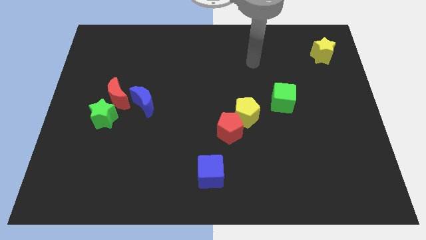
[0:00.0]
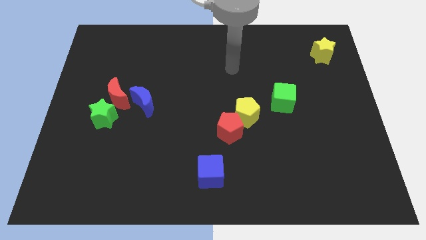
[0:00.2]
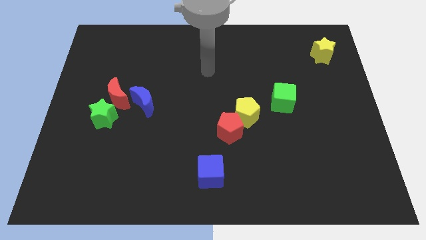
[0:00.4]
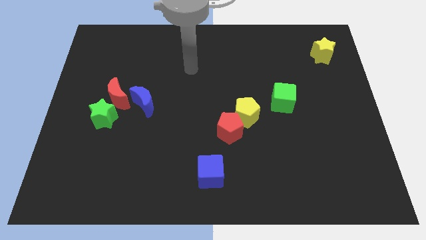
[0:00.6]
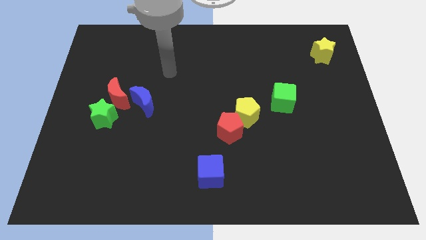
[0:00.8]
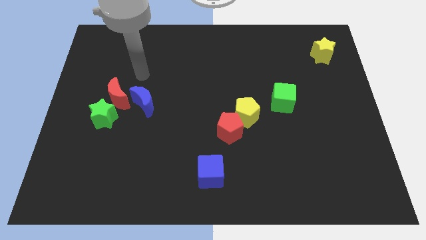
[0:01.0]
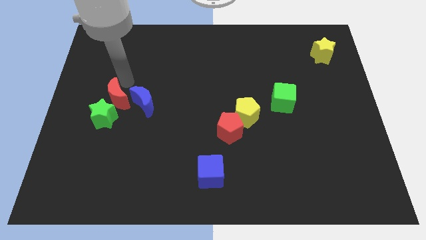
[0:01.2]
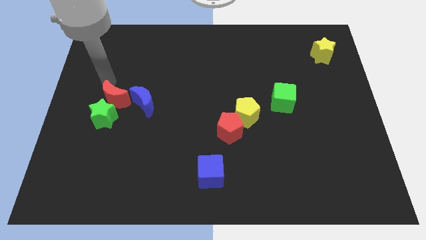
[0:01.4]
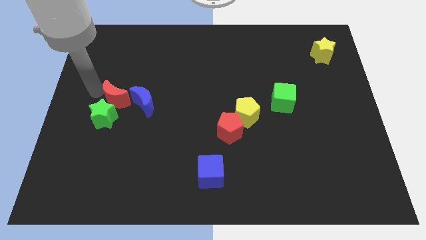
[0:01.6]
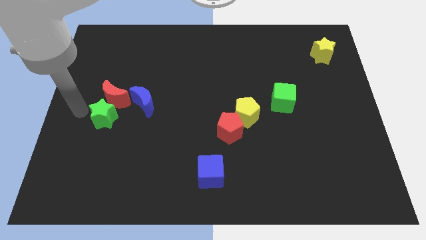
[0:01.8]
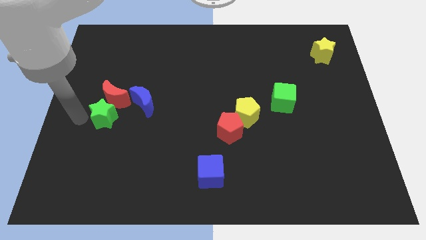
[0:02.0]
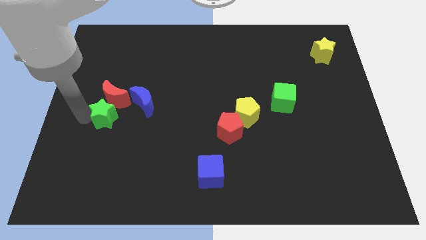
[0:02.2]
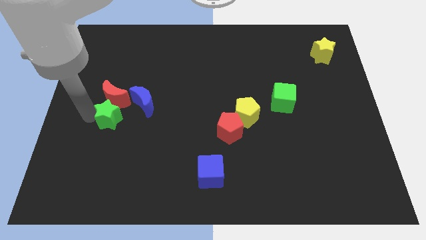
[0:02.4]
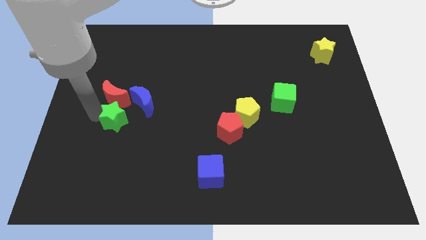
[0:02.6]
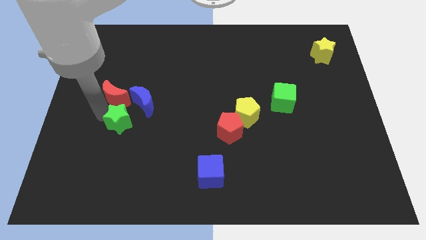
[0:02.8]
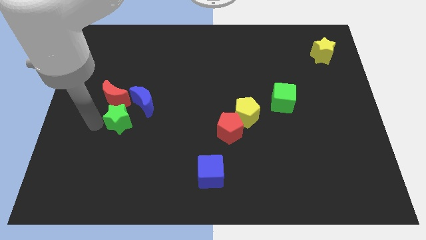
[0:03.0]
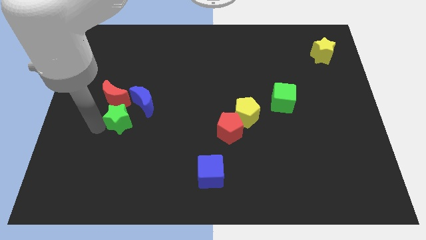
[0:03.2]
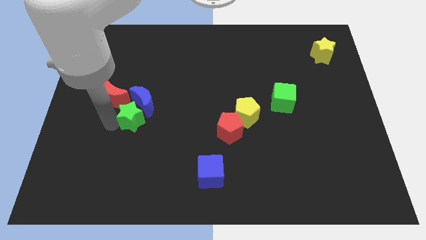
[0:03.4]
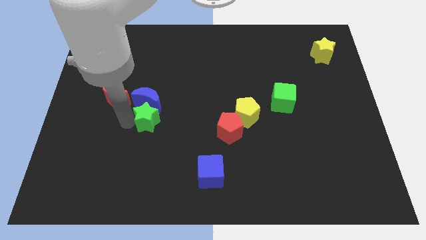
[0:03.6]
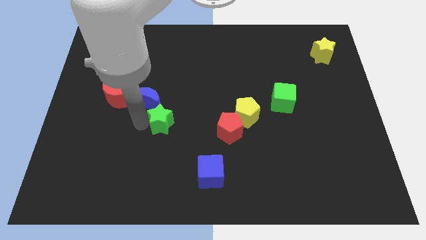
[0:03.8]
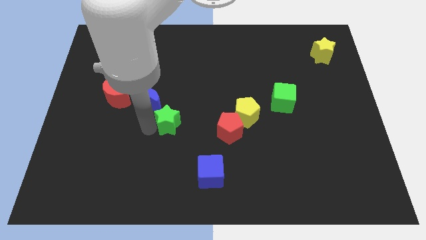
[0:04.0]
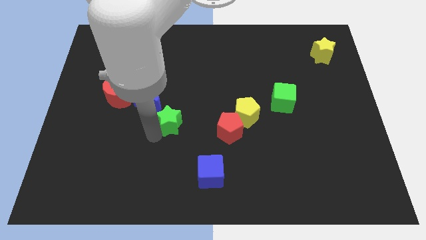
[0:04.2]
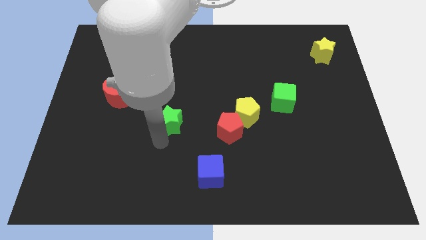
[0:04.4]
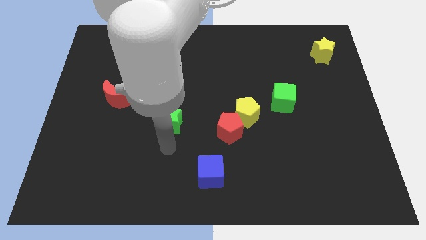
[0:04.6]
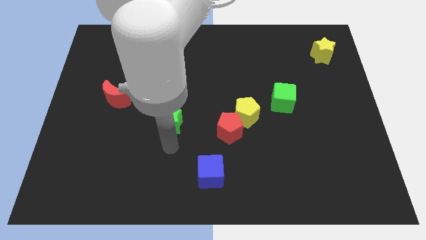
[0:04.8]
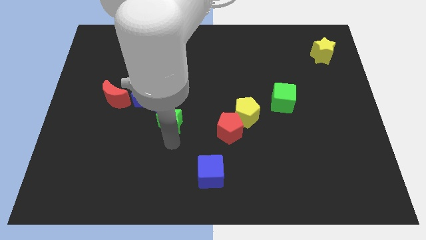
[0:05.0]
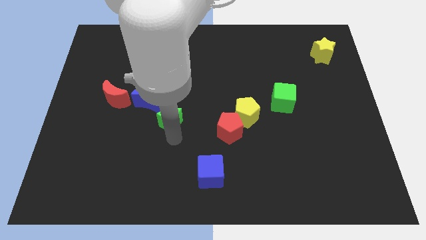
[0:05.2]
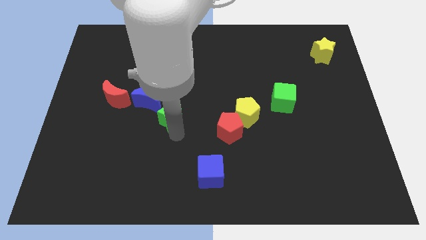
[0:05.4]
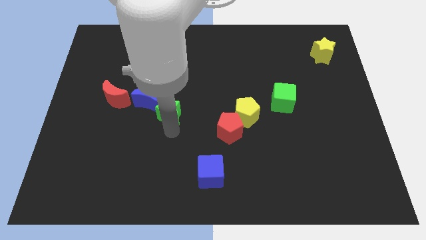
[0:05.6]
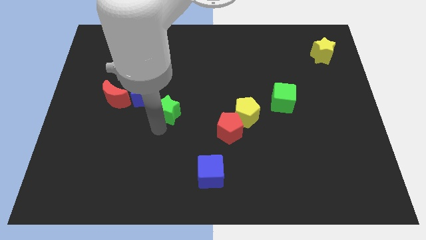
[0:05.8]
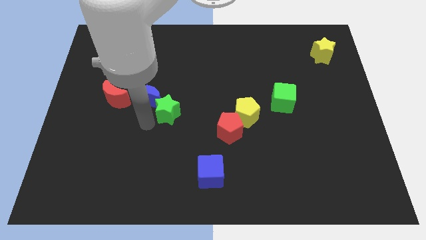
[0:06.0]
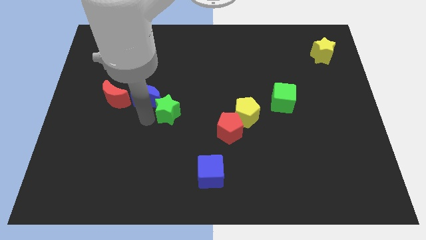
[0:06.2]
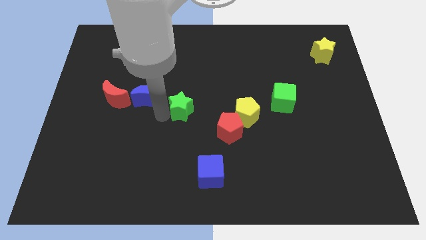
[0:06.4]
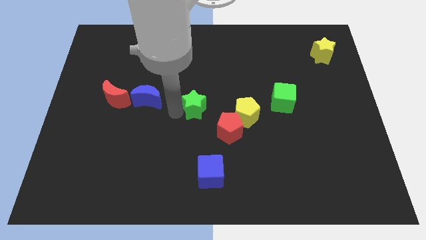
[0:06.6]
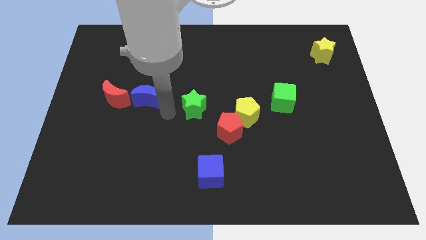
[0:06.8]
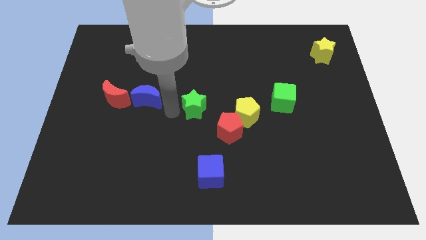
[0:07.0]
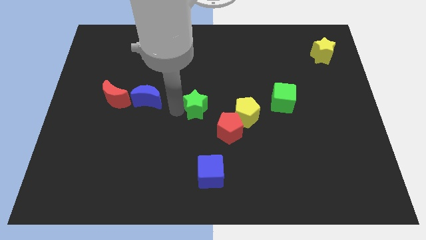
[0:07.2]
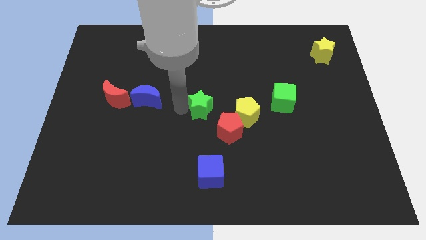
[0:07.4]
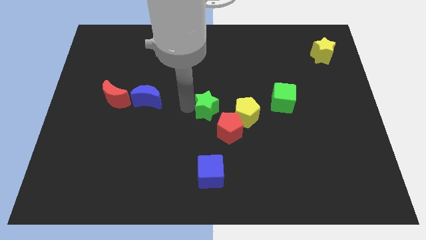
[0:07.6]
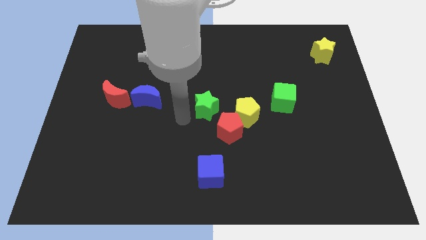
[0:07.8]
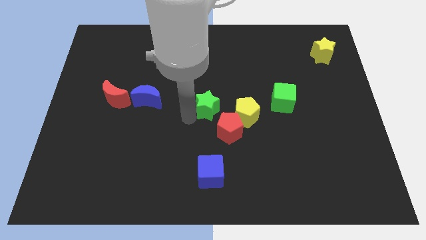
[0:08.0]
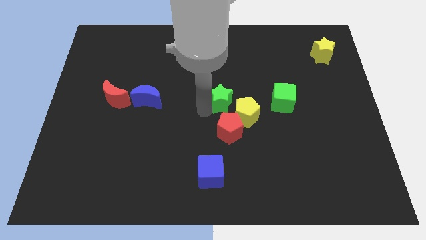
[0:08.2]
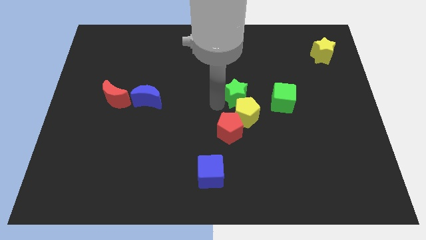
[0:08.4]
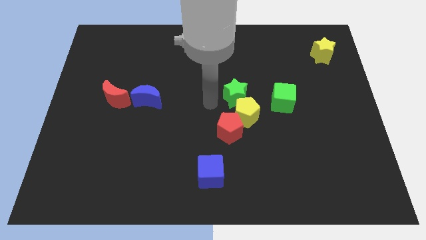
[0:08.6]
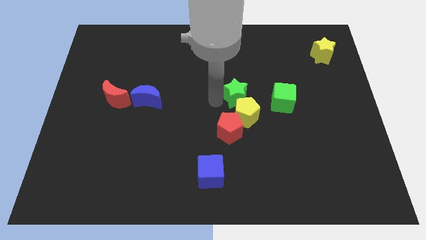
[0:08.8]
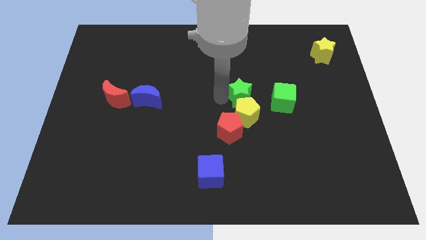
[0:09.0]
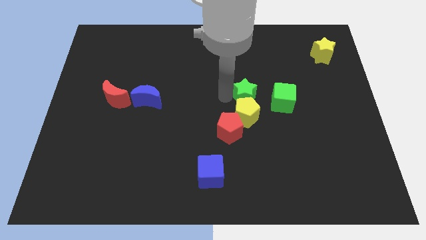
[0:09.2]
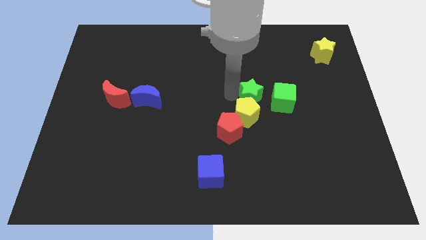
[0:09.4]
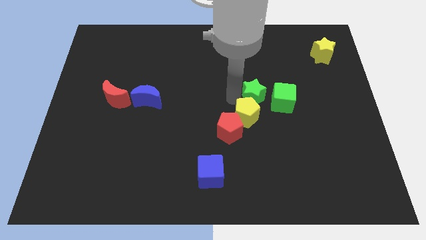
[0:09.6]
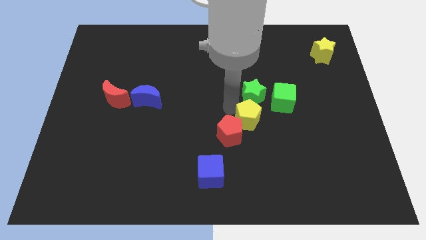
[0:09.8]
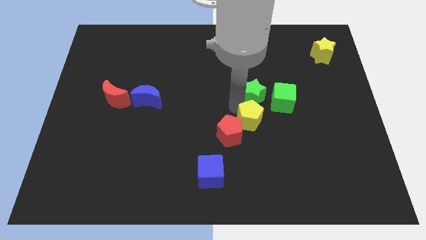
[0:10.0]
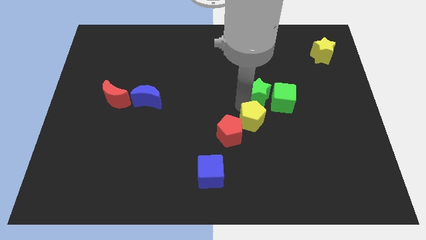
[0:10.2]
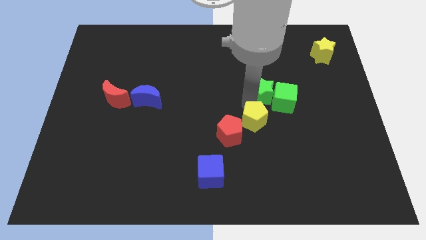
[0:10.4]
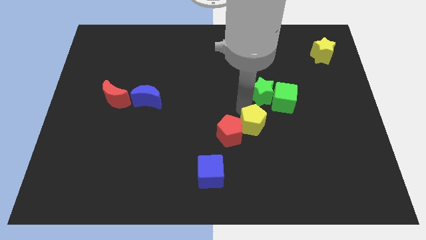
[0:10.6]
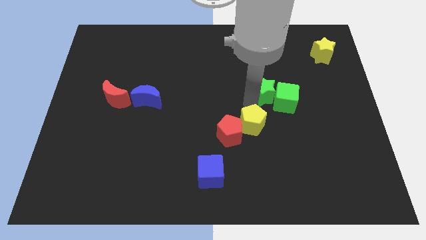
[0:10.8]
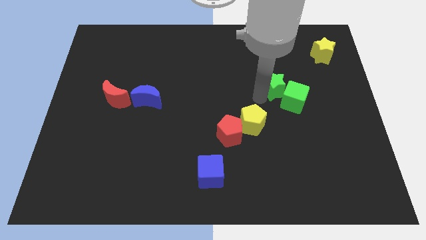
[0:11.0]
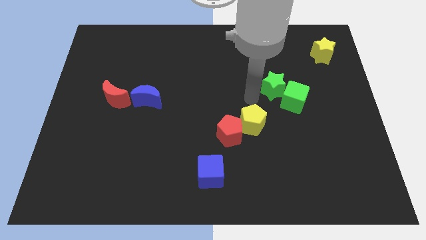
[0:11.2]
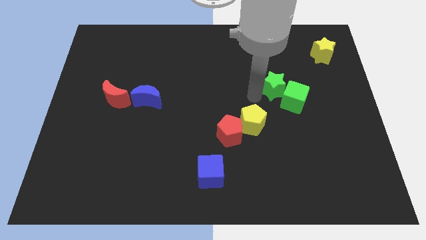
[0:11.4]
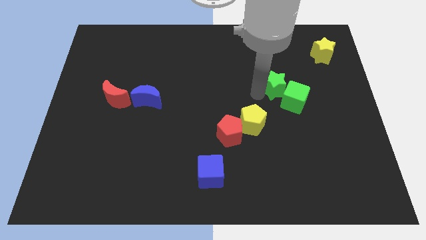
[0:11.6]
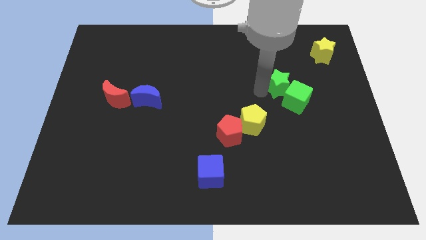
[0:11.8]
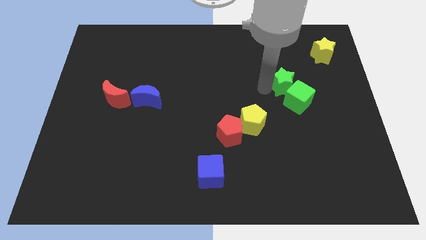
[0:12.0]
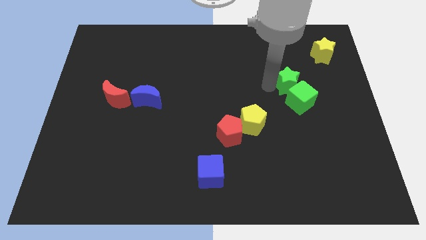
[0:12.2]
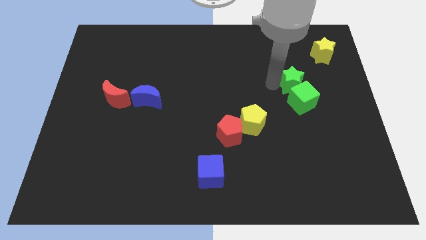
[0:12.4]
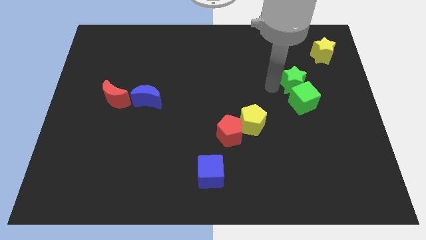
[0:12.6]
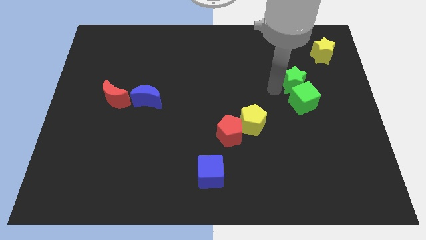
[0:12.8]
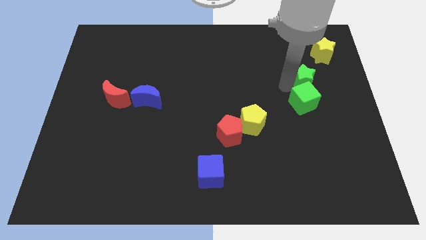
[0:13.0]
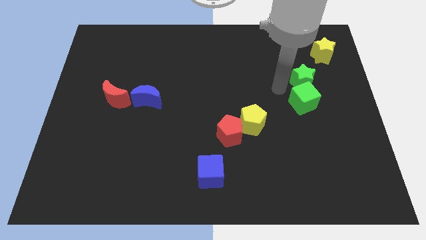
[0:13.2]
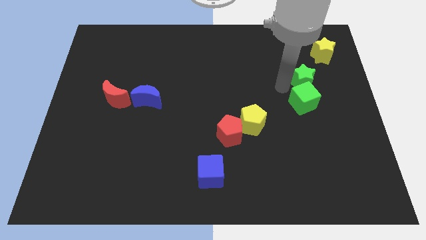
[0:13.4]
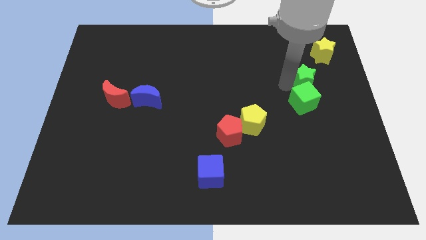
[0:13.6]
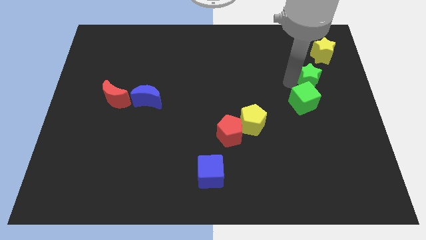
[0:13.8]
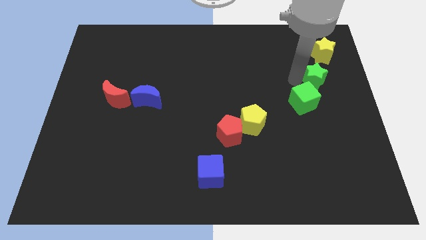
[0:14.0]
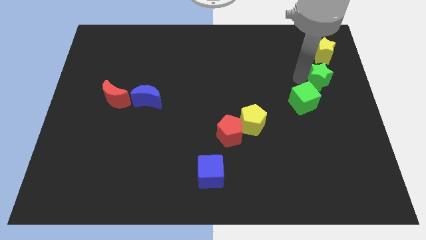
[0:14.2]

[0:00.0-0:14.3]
slide the green star to the right side
